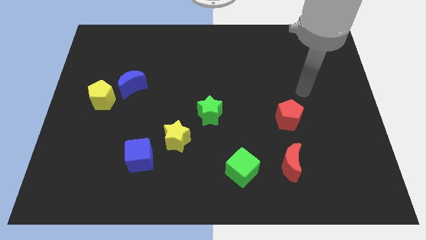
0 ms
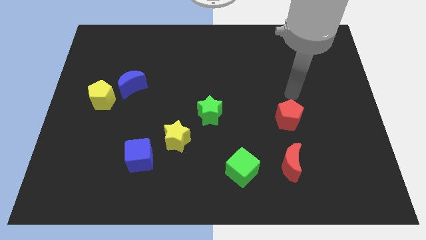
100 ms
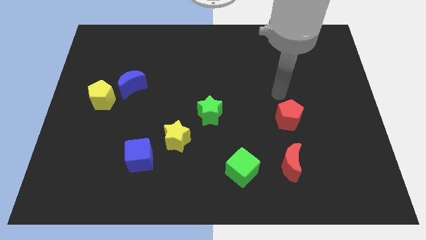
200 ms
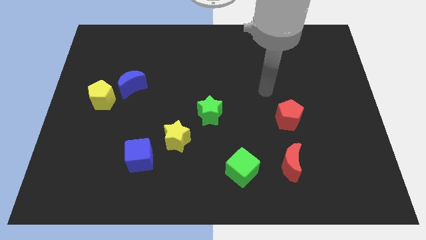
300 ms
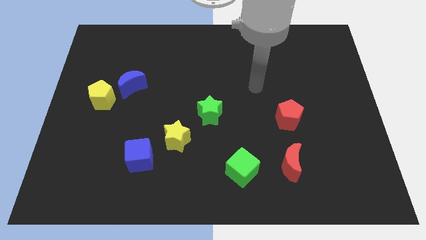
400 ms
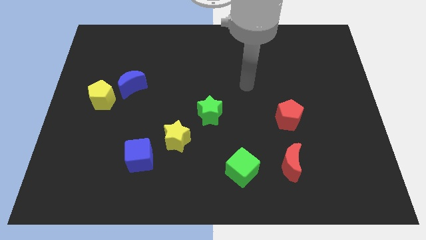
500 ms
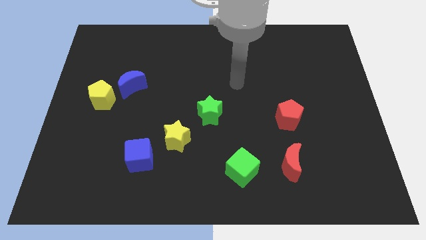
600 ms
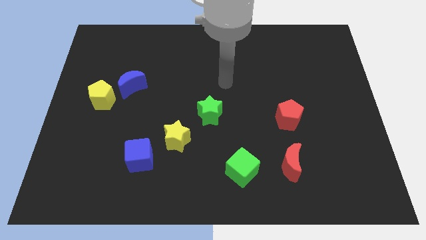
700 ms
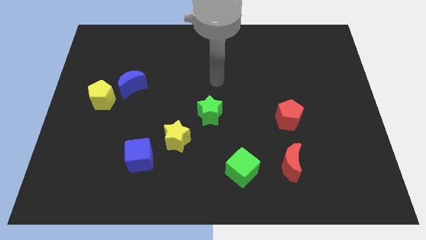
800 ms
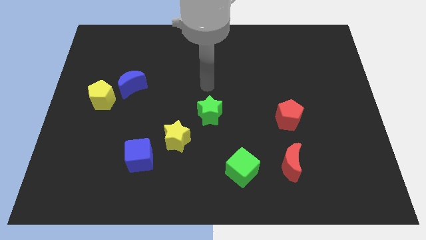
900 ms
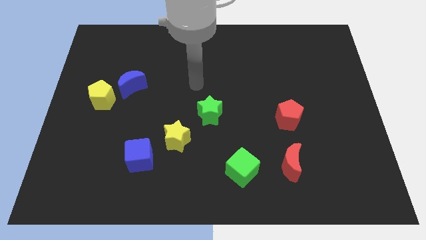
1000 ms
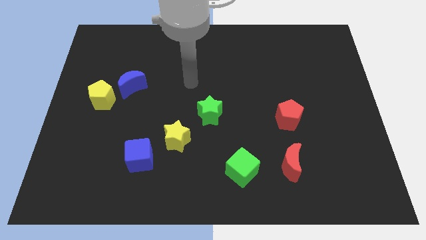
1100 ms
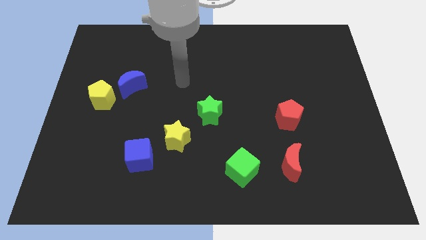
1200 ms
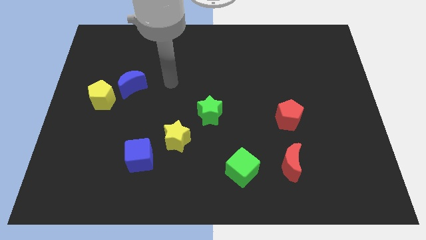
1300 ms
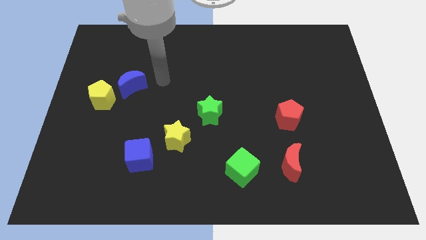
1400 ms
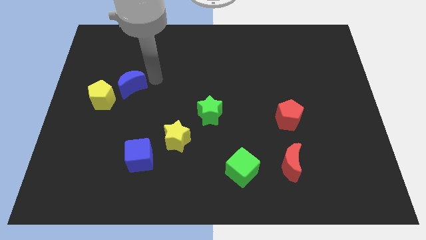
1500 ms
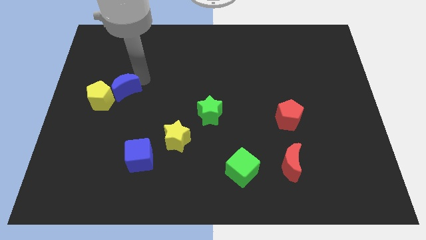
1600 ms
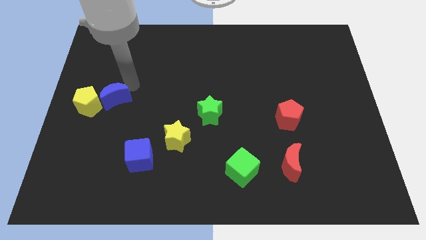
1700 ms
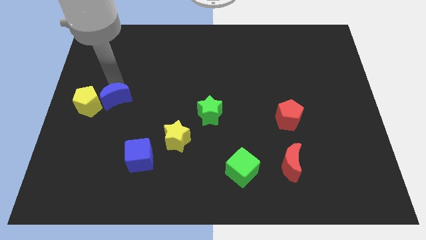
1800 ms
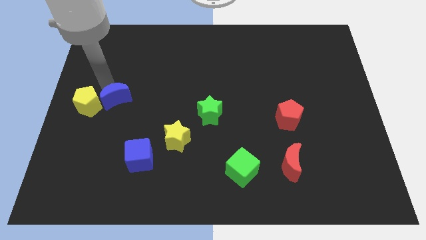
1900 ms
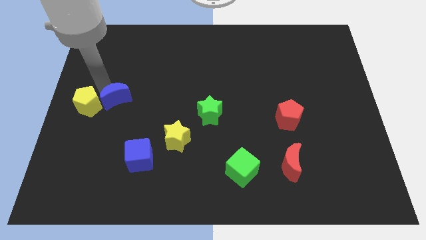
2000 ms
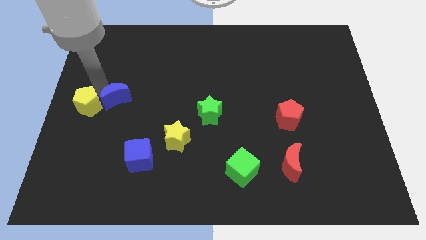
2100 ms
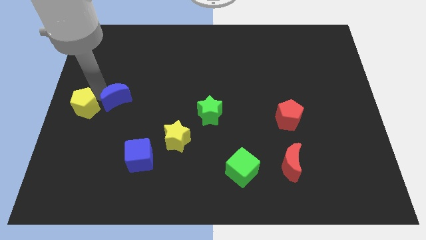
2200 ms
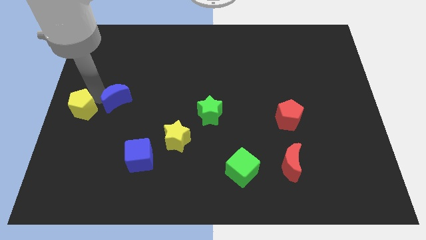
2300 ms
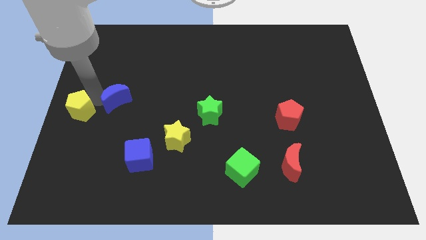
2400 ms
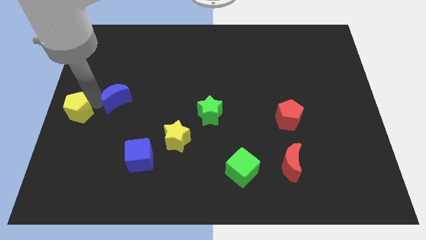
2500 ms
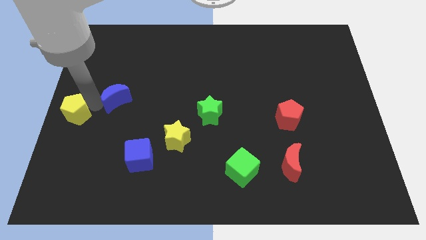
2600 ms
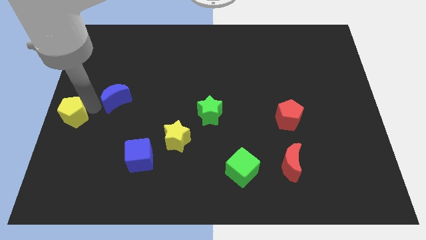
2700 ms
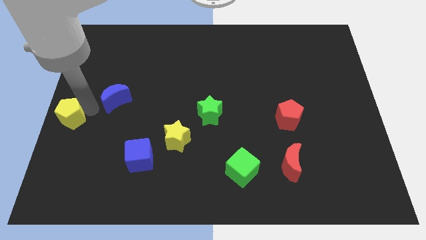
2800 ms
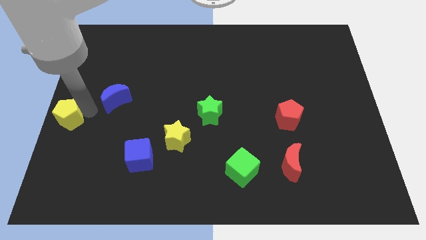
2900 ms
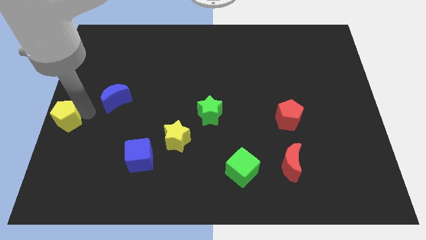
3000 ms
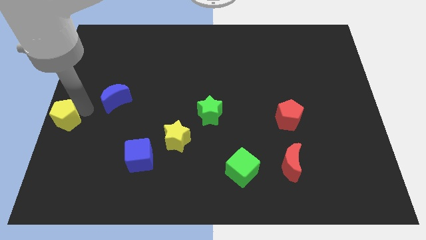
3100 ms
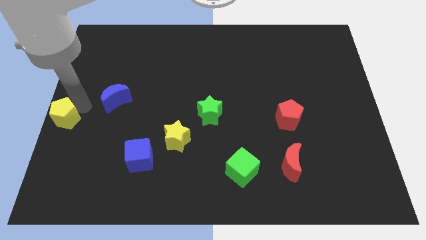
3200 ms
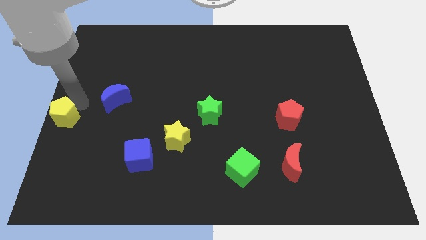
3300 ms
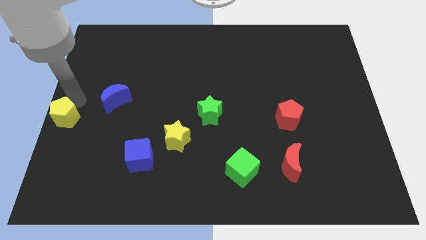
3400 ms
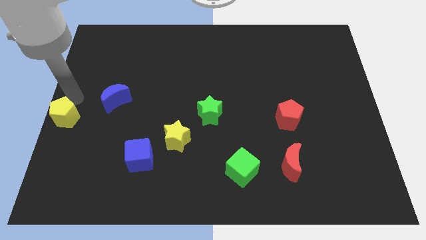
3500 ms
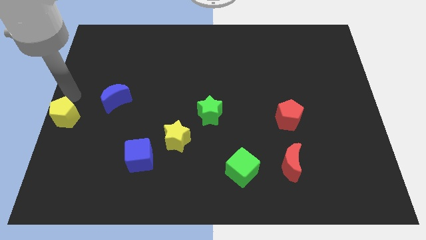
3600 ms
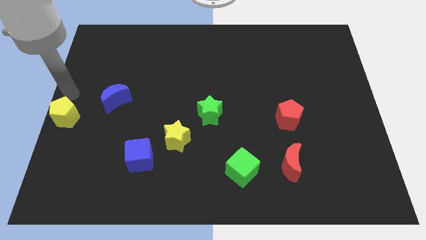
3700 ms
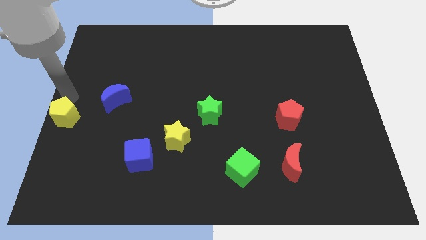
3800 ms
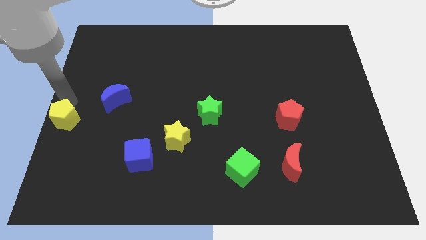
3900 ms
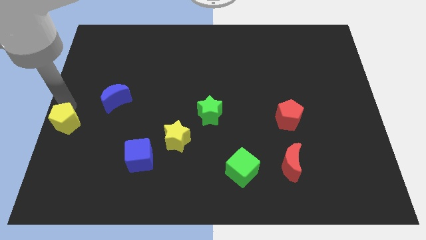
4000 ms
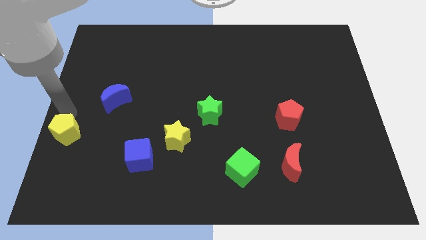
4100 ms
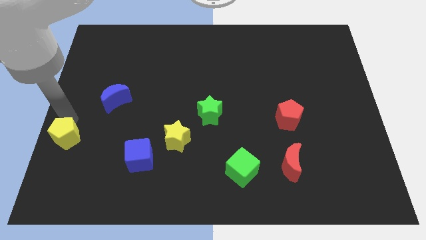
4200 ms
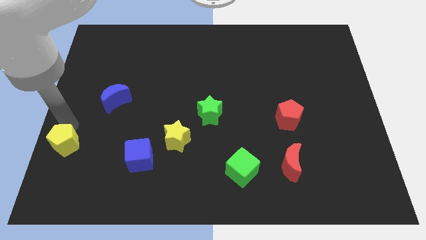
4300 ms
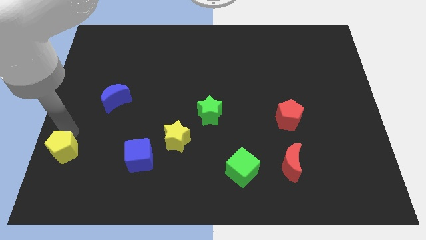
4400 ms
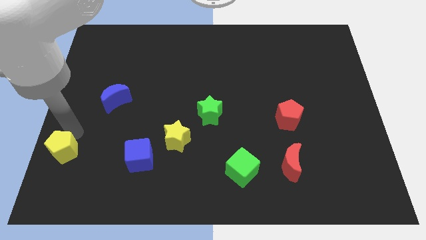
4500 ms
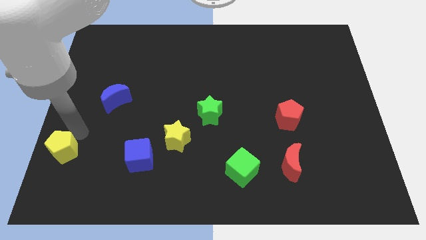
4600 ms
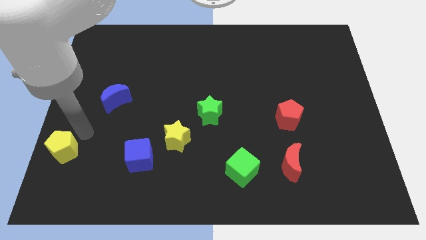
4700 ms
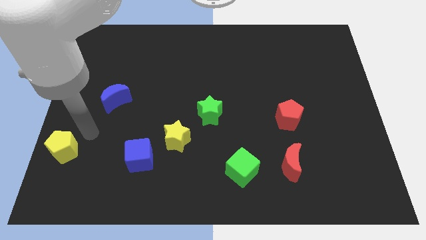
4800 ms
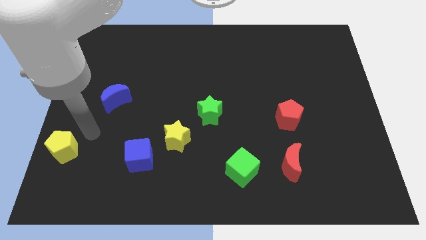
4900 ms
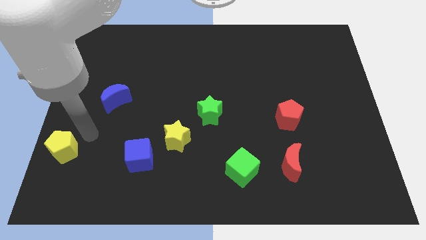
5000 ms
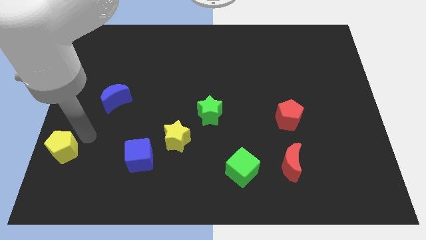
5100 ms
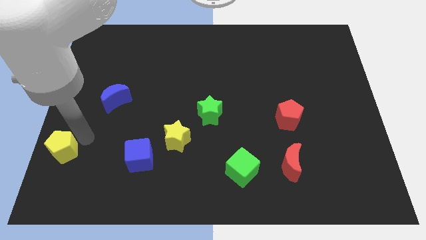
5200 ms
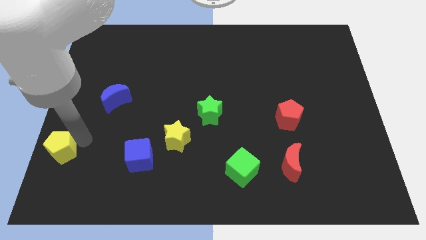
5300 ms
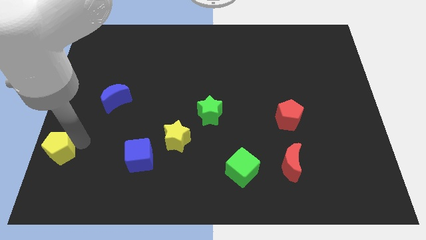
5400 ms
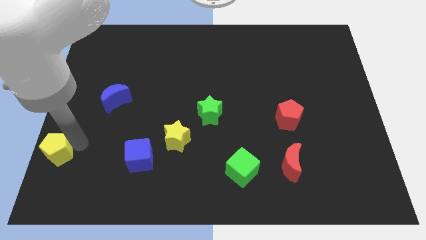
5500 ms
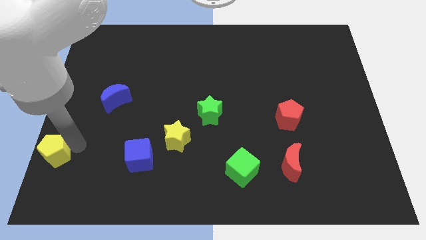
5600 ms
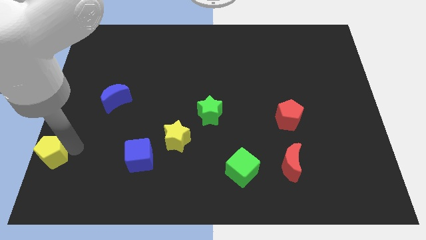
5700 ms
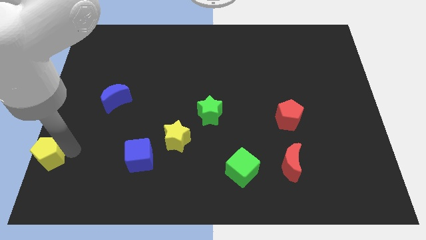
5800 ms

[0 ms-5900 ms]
move the yellow pentagon to the lower left corner
